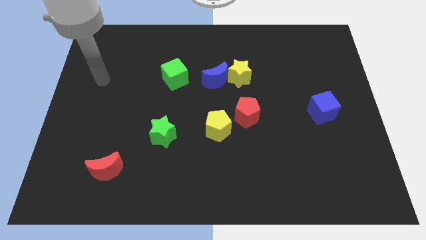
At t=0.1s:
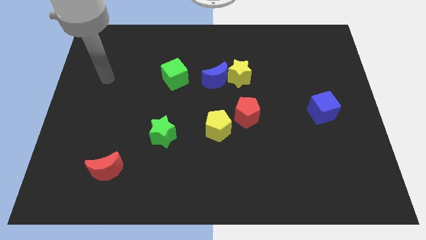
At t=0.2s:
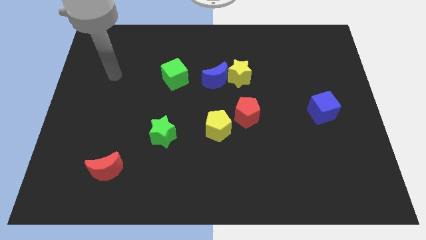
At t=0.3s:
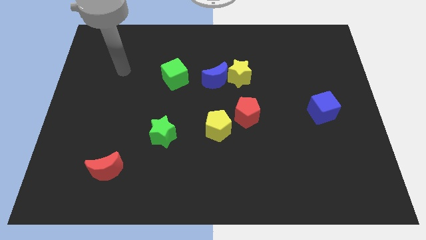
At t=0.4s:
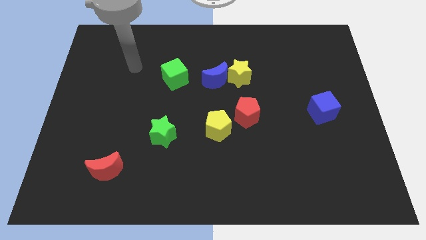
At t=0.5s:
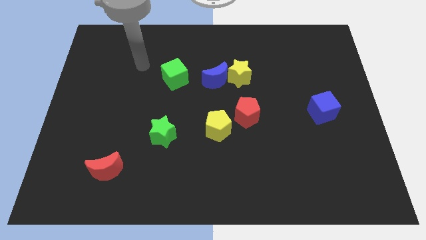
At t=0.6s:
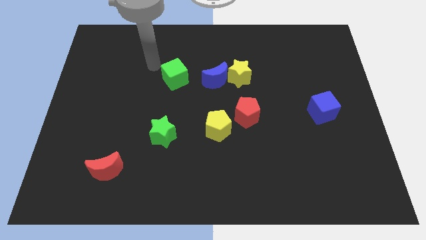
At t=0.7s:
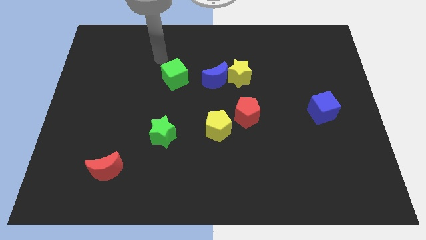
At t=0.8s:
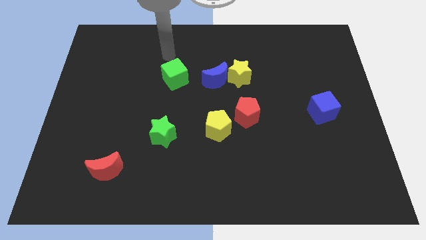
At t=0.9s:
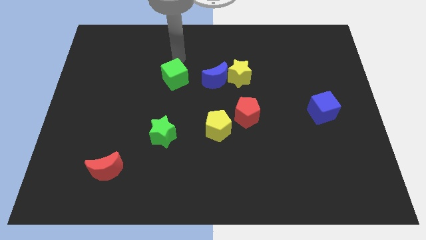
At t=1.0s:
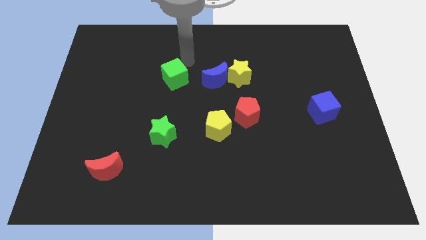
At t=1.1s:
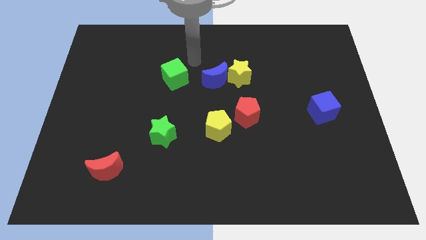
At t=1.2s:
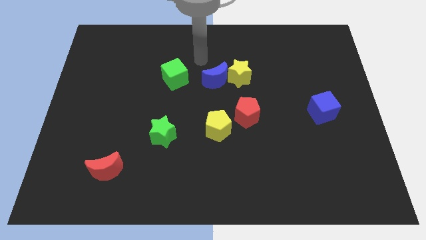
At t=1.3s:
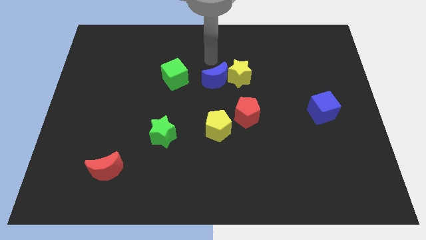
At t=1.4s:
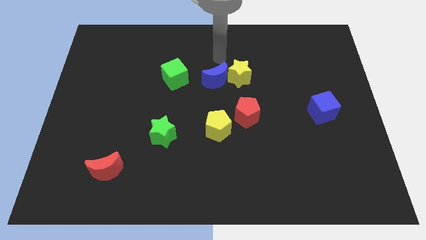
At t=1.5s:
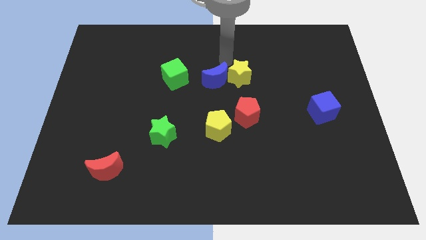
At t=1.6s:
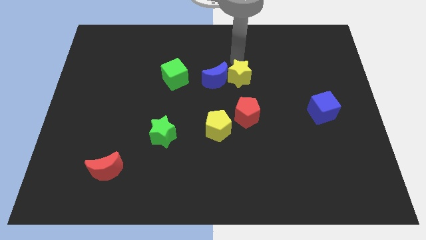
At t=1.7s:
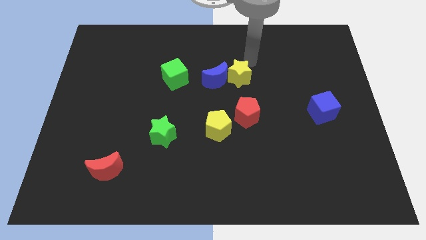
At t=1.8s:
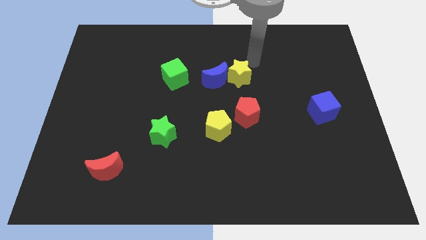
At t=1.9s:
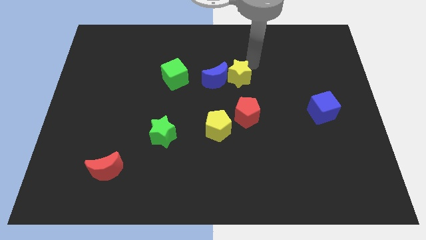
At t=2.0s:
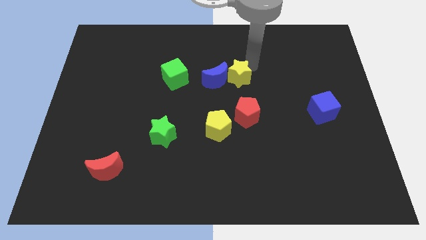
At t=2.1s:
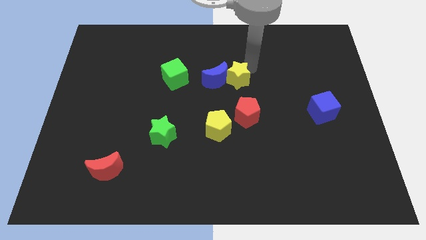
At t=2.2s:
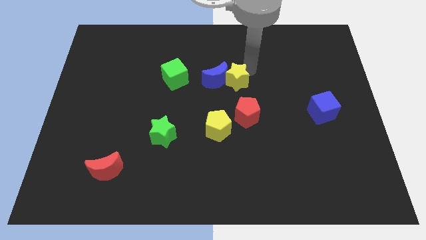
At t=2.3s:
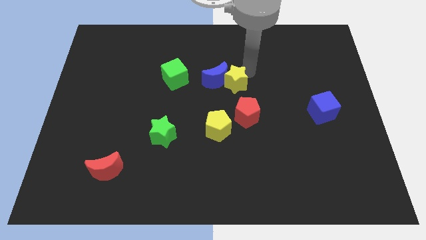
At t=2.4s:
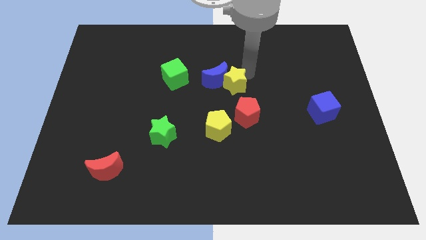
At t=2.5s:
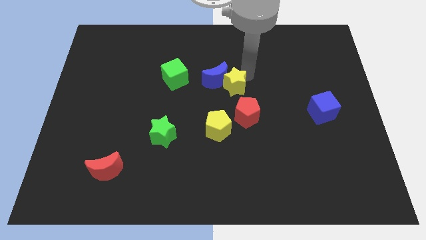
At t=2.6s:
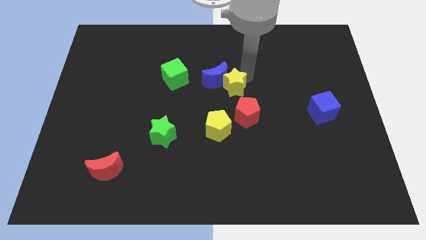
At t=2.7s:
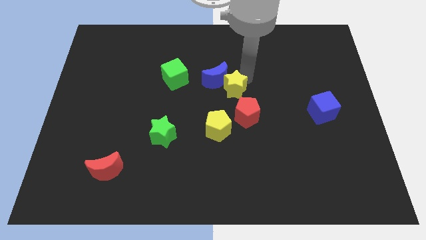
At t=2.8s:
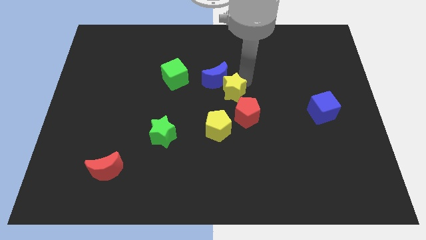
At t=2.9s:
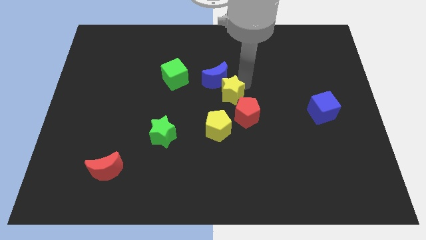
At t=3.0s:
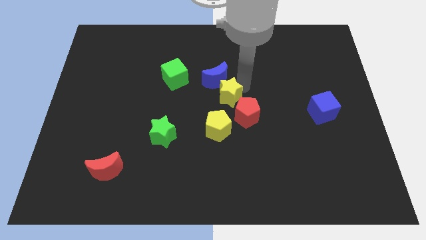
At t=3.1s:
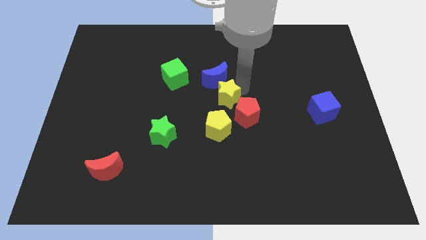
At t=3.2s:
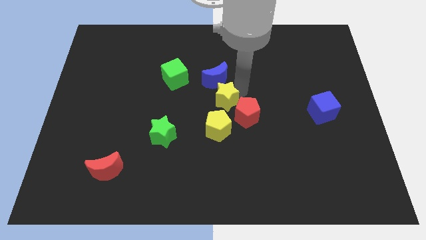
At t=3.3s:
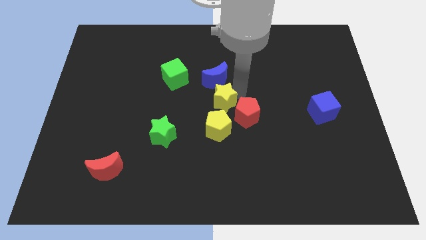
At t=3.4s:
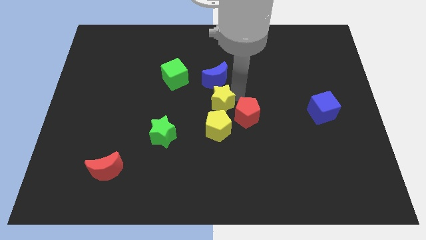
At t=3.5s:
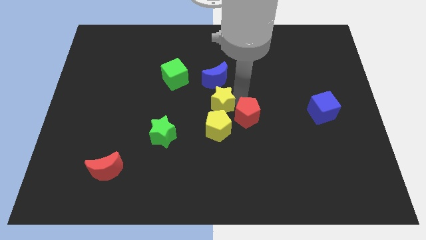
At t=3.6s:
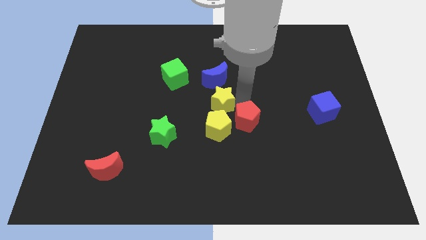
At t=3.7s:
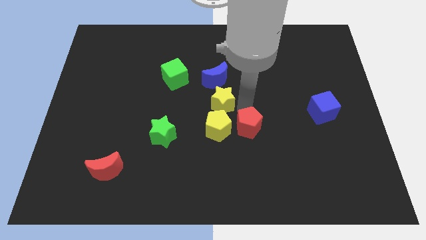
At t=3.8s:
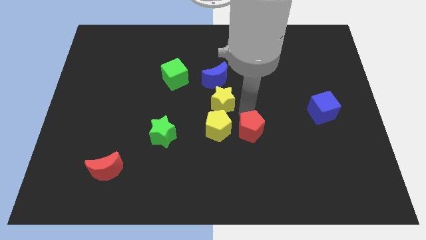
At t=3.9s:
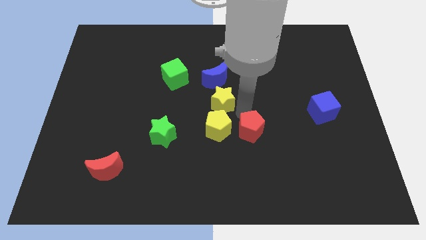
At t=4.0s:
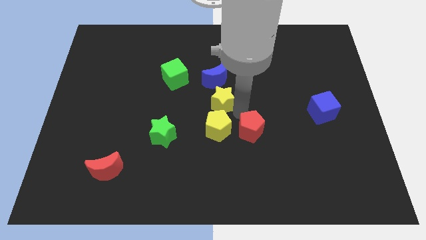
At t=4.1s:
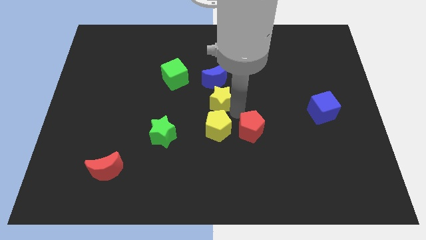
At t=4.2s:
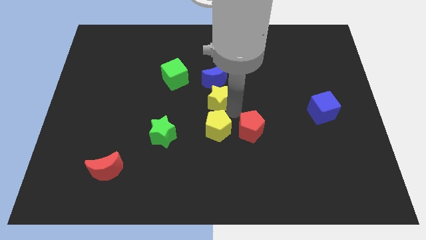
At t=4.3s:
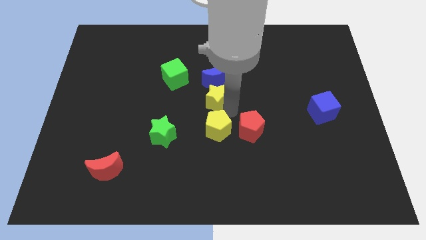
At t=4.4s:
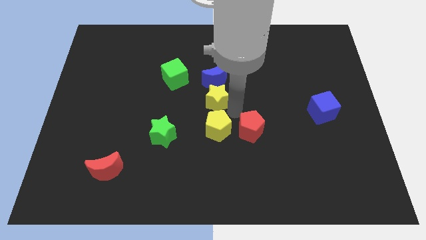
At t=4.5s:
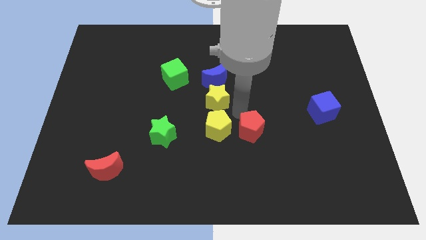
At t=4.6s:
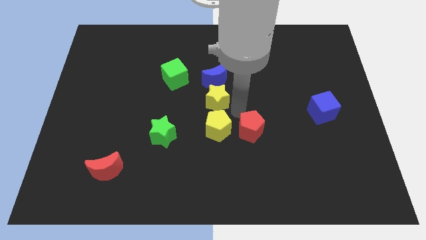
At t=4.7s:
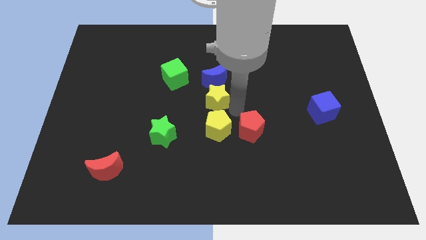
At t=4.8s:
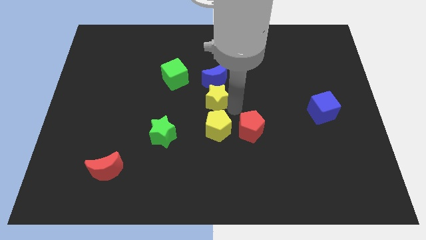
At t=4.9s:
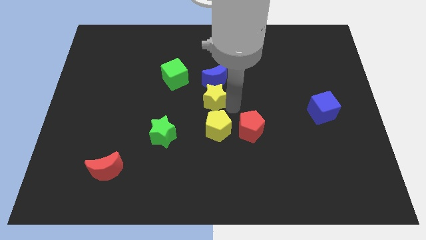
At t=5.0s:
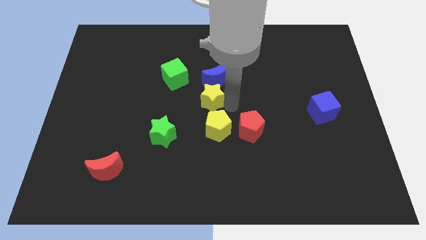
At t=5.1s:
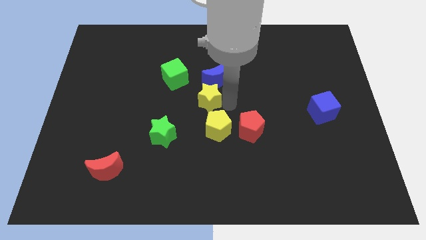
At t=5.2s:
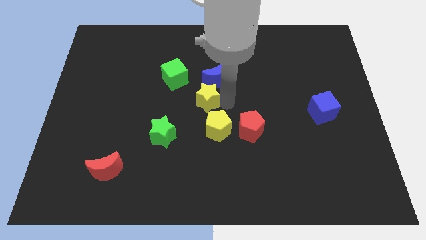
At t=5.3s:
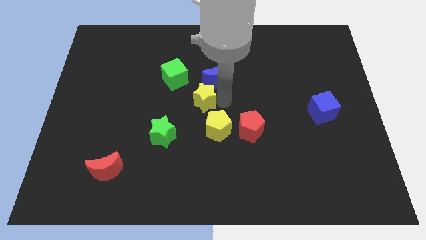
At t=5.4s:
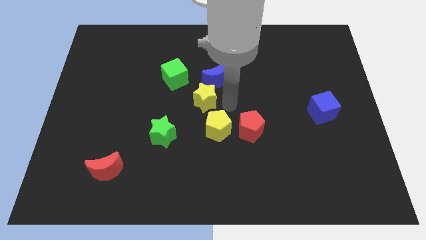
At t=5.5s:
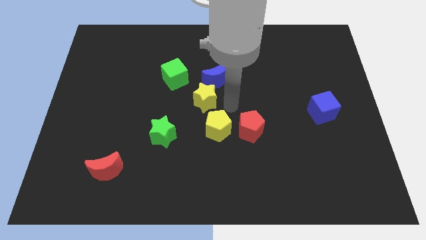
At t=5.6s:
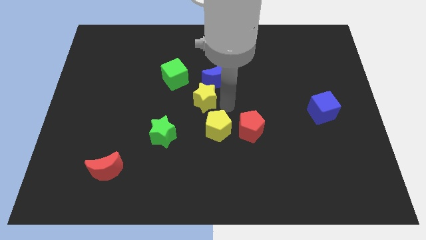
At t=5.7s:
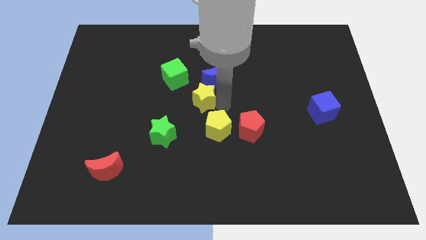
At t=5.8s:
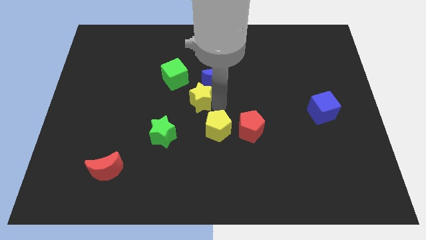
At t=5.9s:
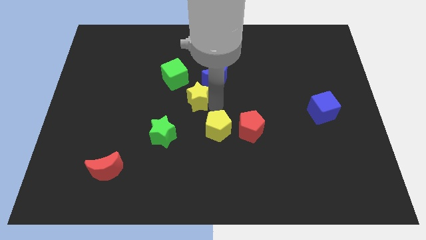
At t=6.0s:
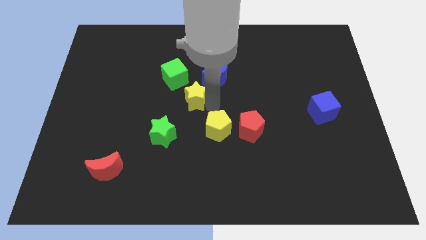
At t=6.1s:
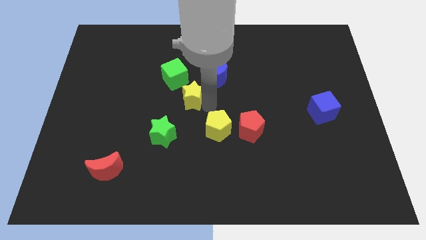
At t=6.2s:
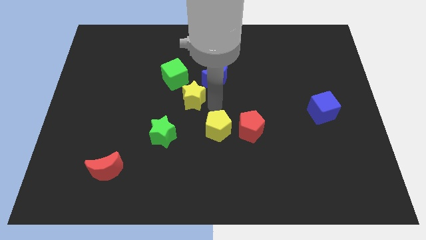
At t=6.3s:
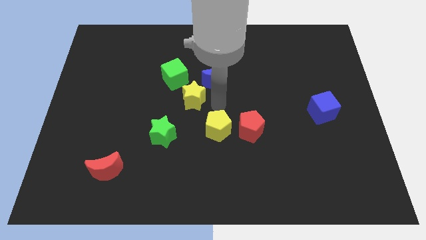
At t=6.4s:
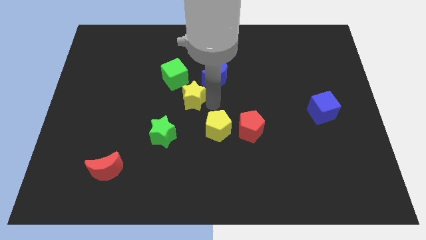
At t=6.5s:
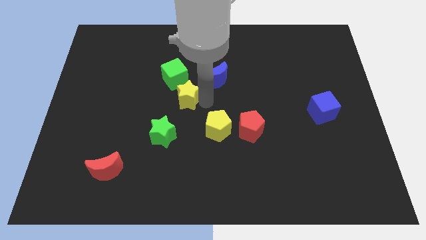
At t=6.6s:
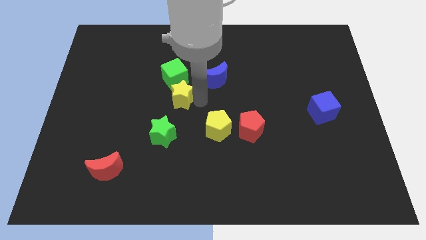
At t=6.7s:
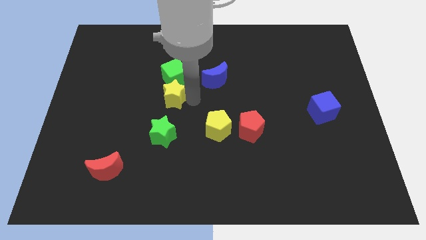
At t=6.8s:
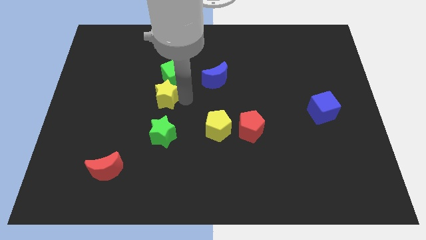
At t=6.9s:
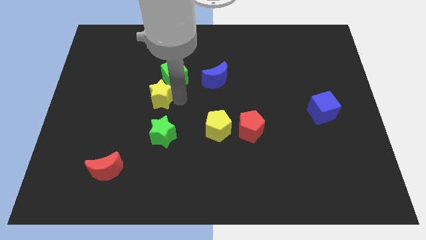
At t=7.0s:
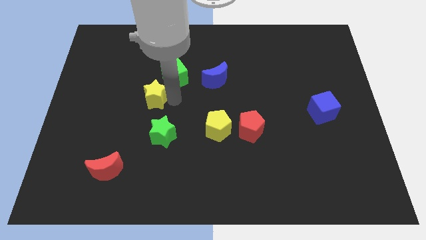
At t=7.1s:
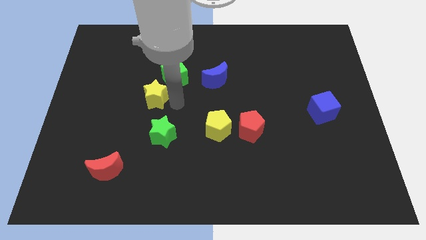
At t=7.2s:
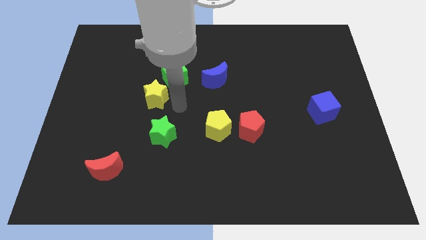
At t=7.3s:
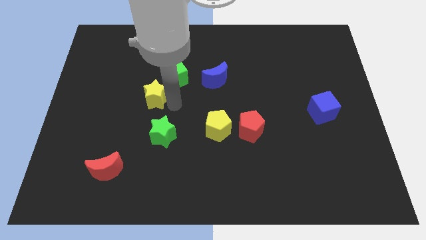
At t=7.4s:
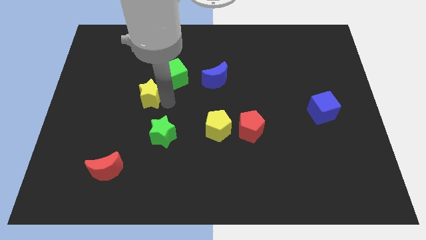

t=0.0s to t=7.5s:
push the yellow star left

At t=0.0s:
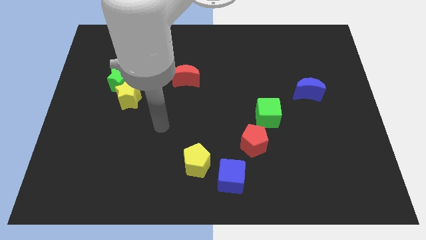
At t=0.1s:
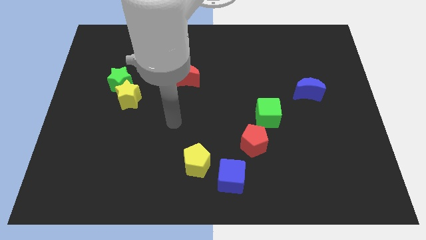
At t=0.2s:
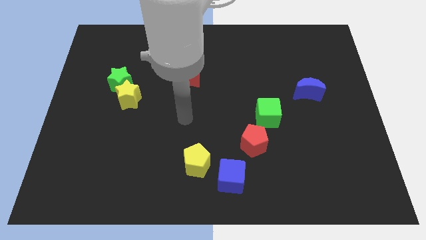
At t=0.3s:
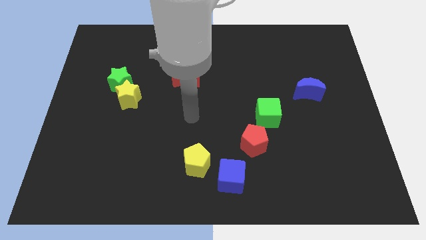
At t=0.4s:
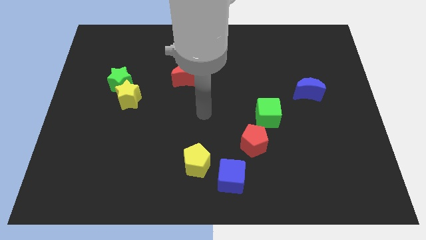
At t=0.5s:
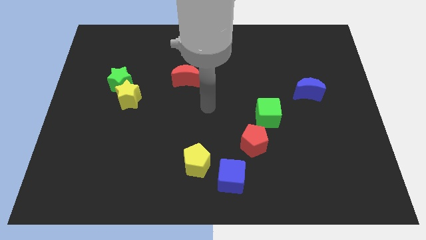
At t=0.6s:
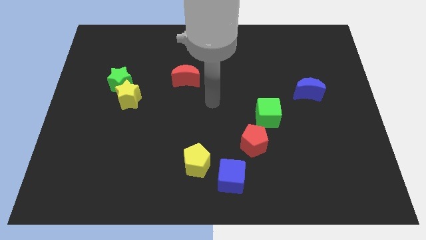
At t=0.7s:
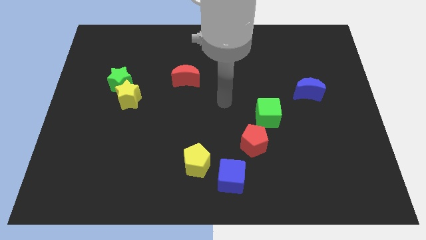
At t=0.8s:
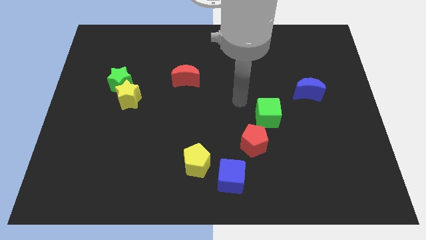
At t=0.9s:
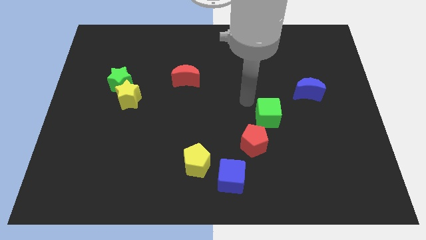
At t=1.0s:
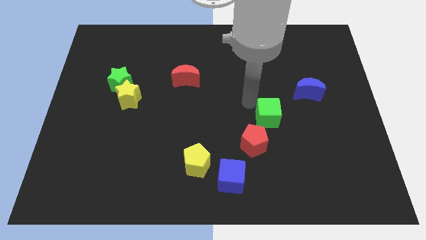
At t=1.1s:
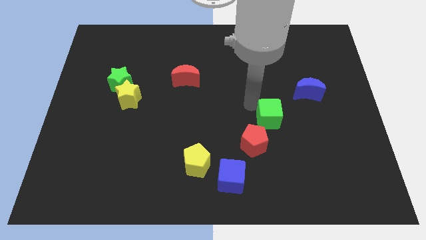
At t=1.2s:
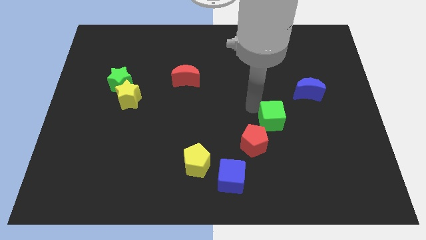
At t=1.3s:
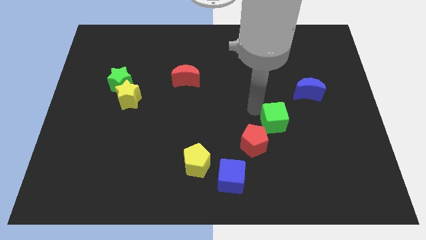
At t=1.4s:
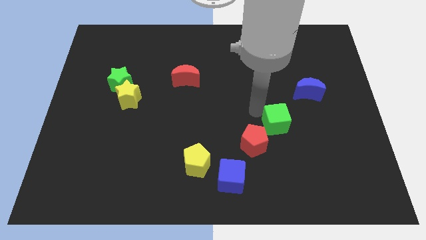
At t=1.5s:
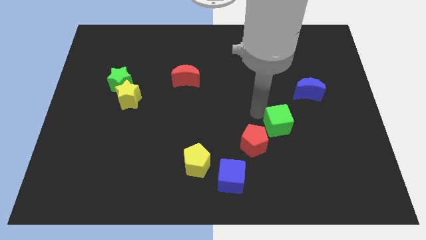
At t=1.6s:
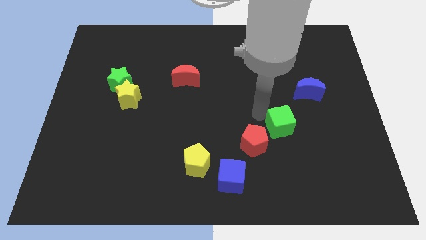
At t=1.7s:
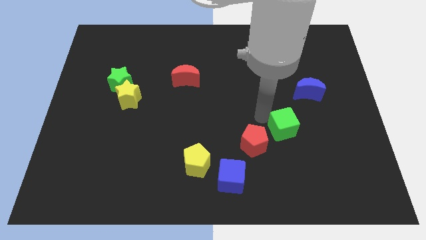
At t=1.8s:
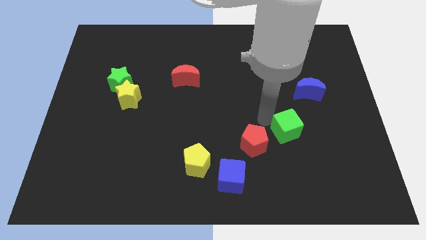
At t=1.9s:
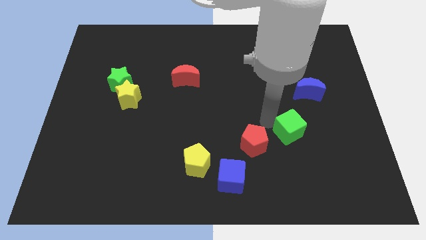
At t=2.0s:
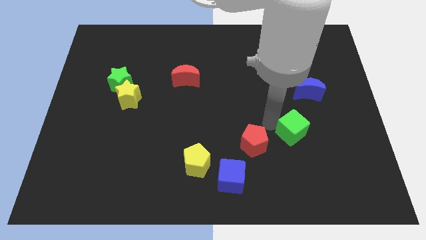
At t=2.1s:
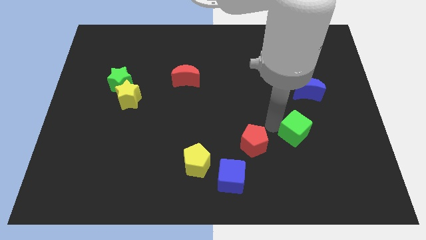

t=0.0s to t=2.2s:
slightly move the green cube diagonally downwards and right
